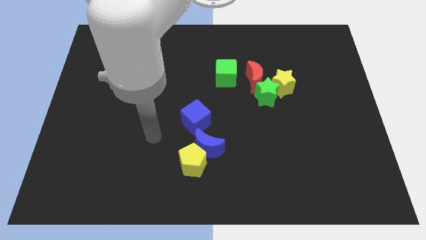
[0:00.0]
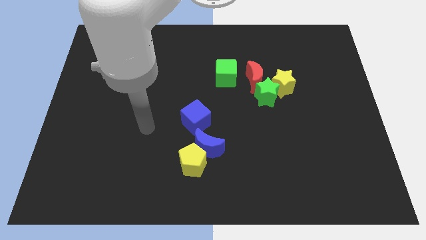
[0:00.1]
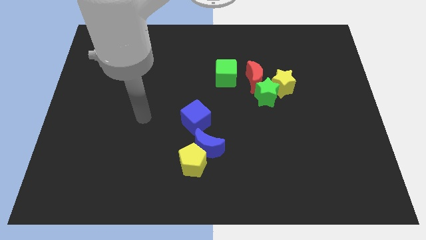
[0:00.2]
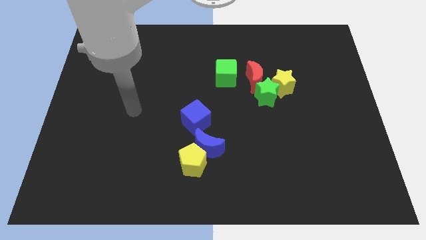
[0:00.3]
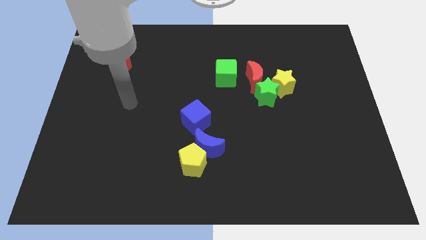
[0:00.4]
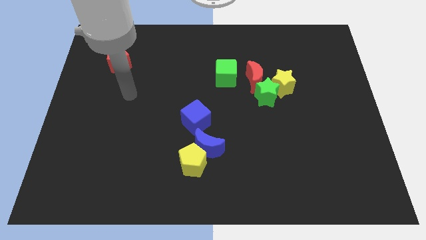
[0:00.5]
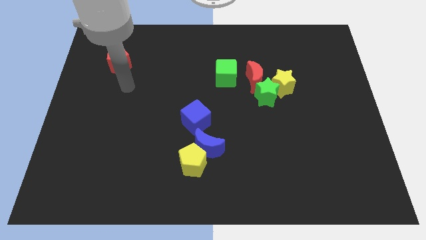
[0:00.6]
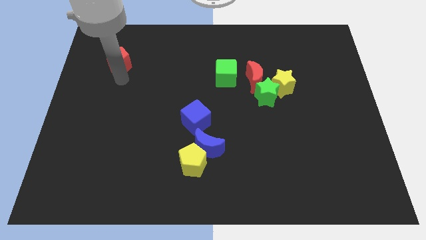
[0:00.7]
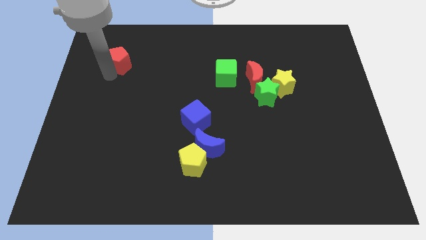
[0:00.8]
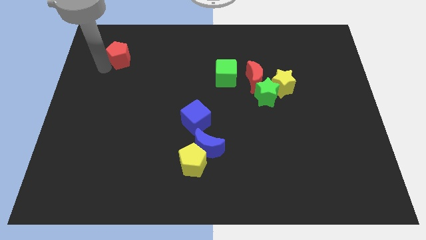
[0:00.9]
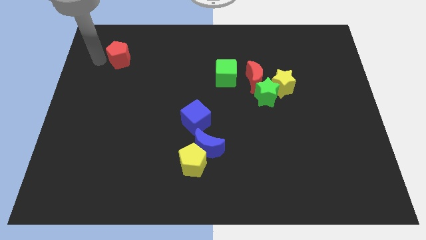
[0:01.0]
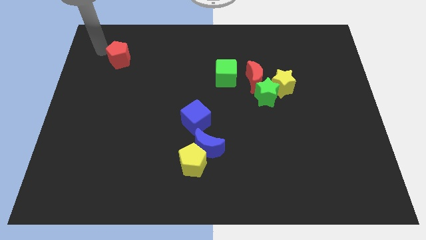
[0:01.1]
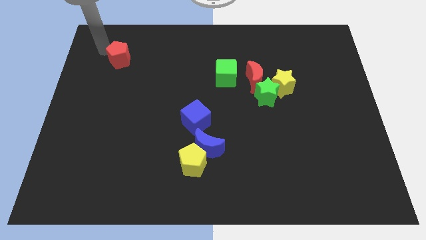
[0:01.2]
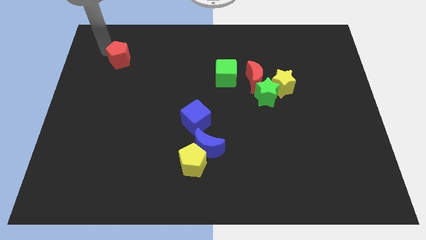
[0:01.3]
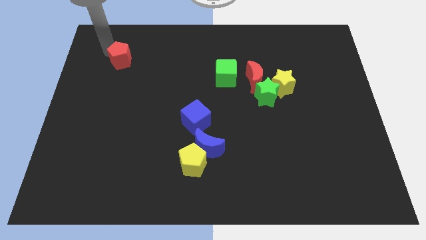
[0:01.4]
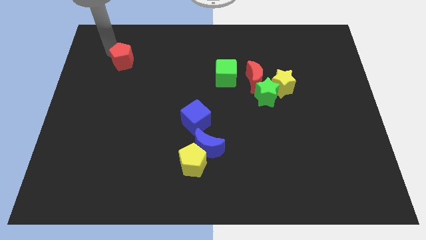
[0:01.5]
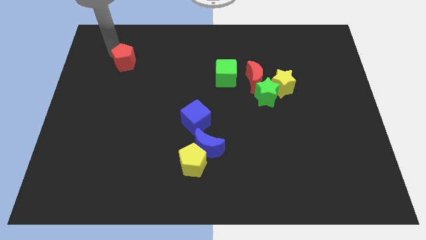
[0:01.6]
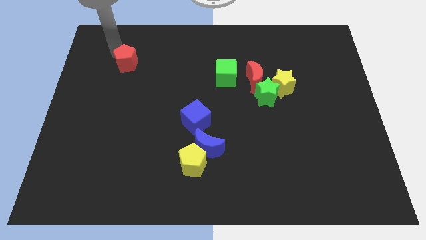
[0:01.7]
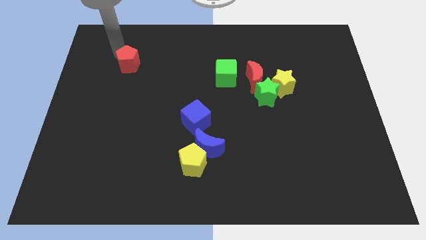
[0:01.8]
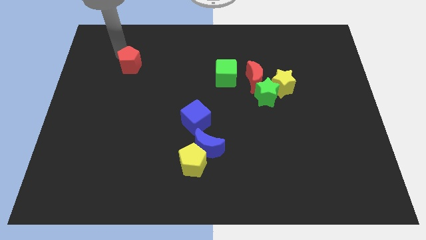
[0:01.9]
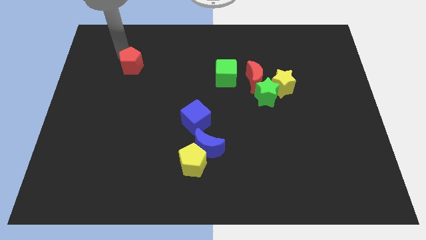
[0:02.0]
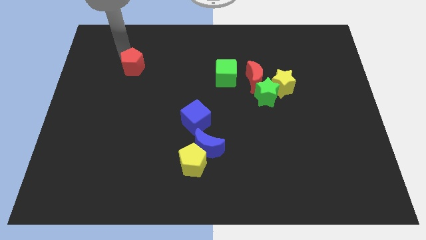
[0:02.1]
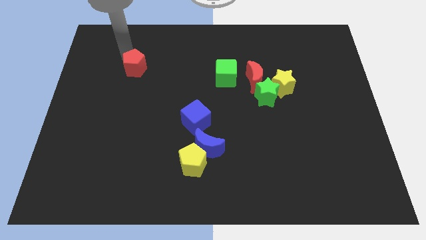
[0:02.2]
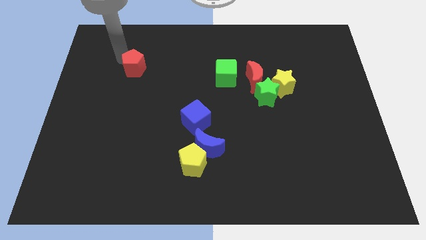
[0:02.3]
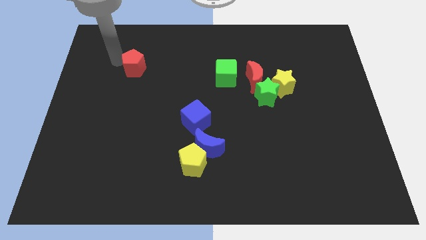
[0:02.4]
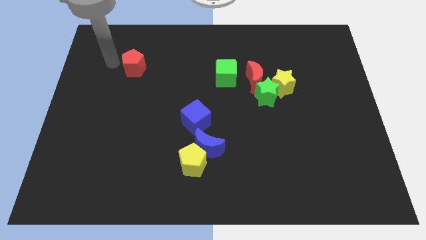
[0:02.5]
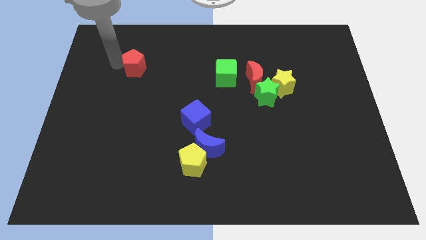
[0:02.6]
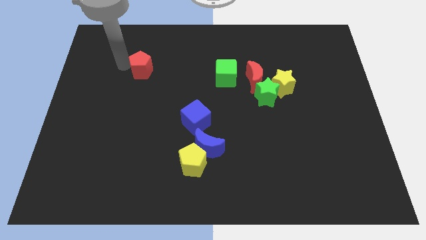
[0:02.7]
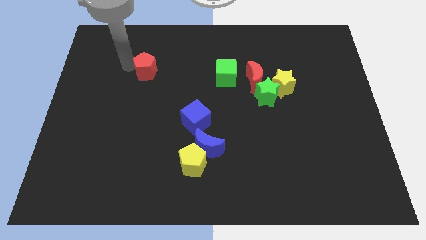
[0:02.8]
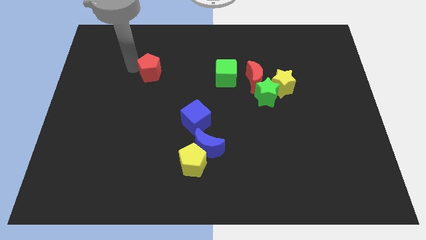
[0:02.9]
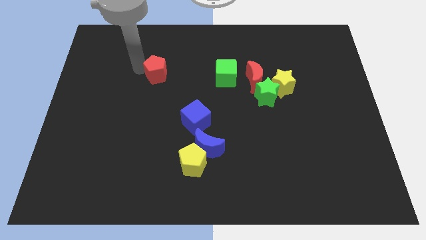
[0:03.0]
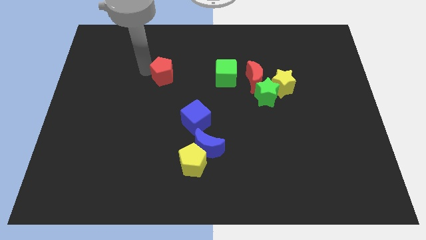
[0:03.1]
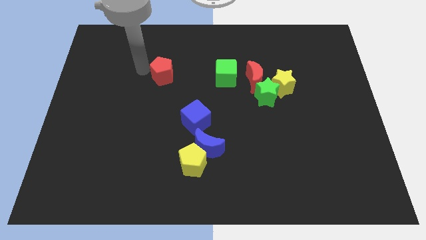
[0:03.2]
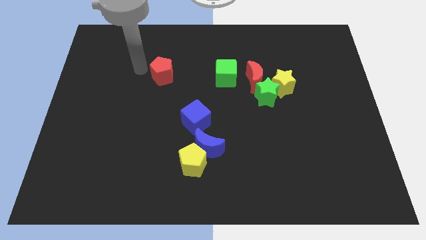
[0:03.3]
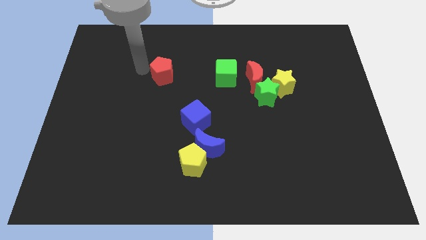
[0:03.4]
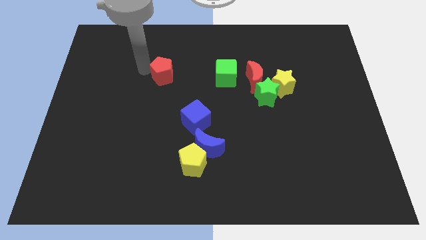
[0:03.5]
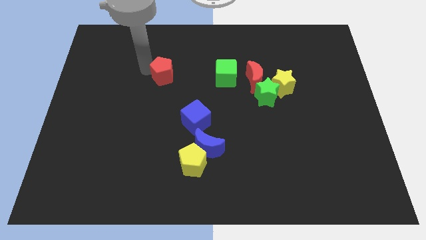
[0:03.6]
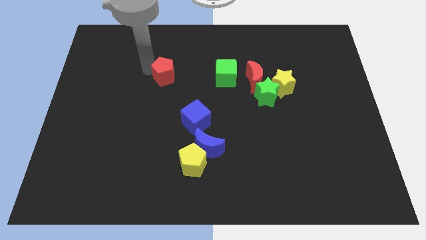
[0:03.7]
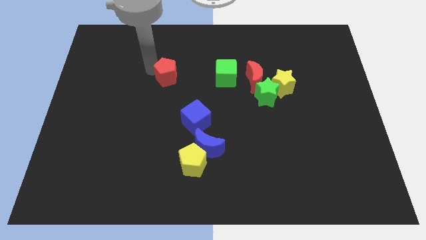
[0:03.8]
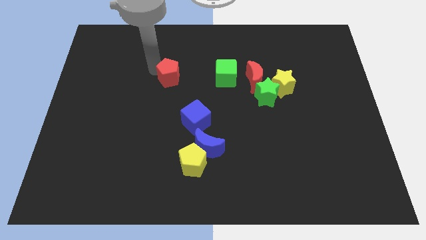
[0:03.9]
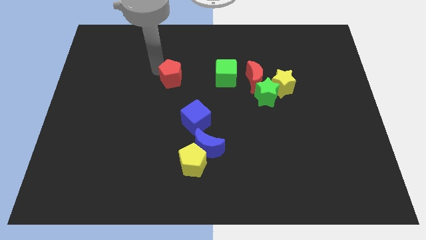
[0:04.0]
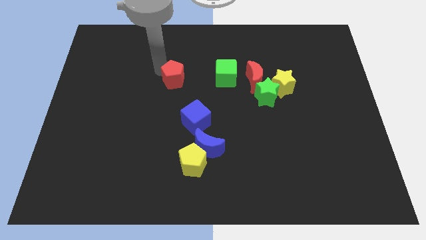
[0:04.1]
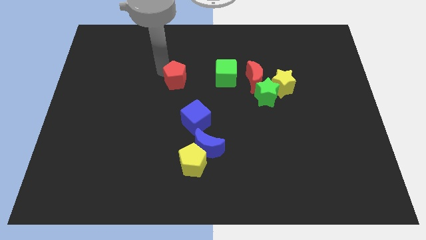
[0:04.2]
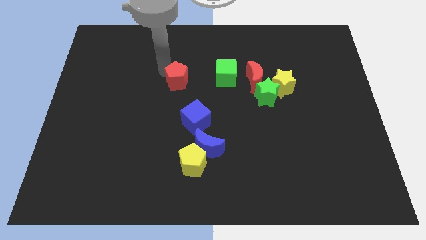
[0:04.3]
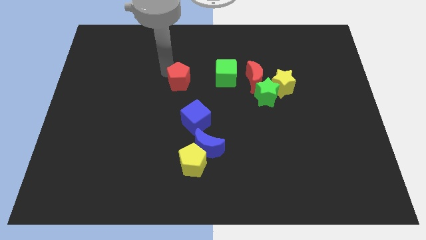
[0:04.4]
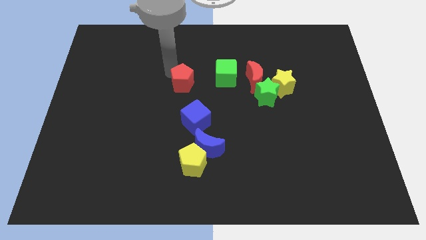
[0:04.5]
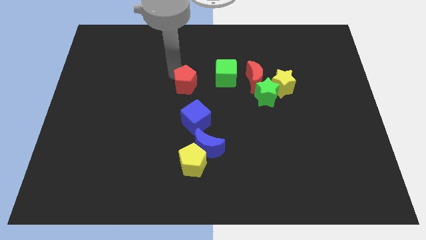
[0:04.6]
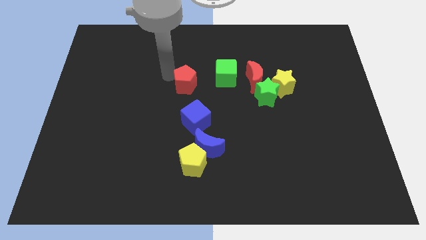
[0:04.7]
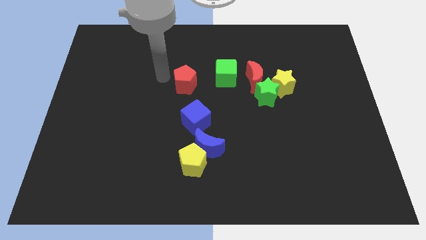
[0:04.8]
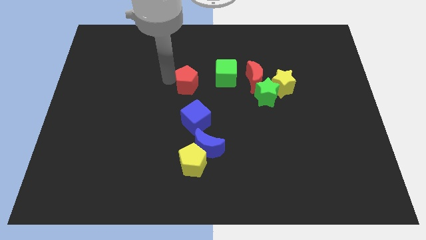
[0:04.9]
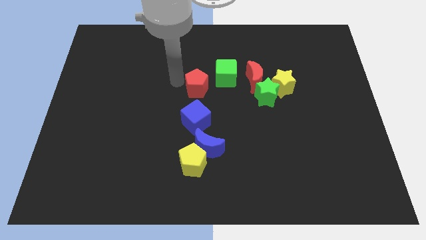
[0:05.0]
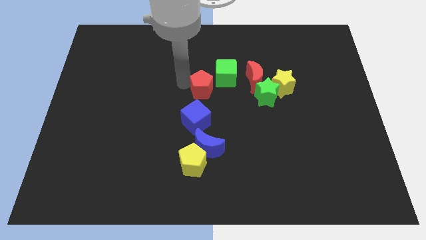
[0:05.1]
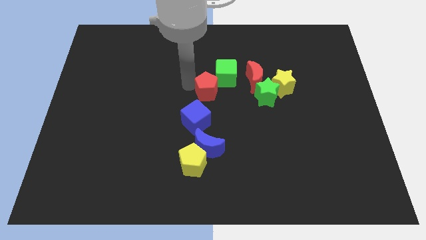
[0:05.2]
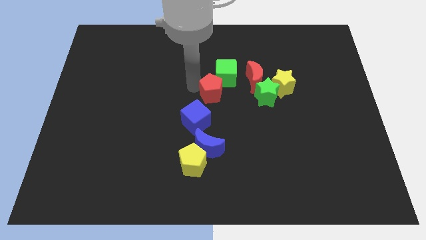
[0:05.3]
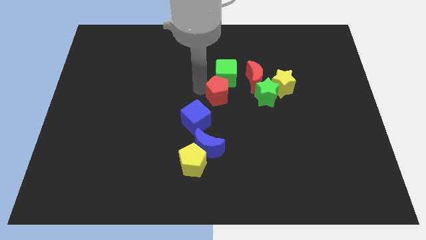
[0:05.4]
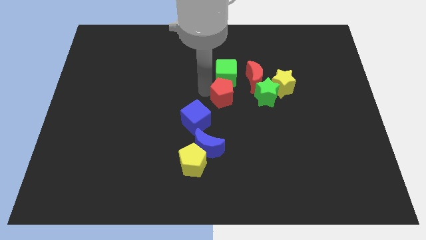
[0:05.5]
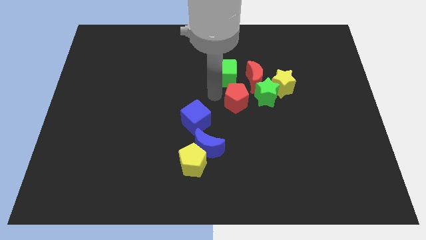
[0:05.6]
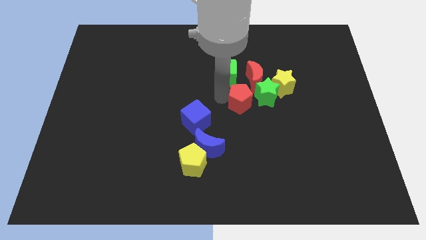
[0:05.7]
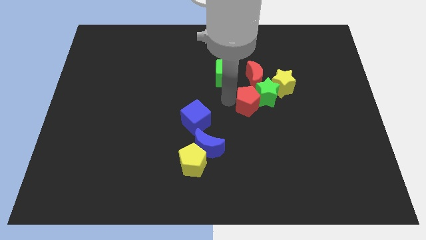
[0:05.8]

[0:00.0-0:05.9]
move the red pentagon to the green star

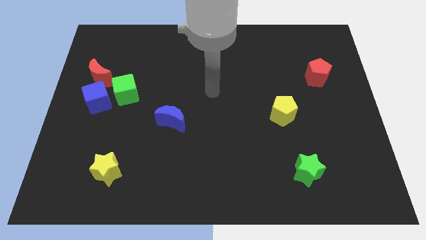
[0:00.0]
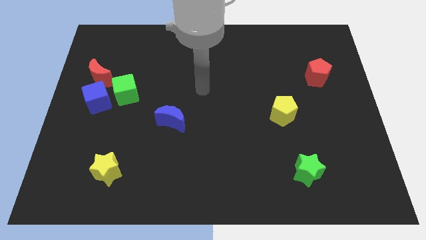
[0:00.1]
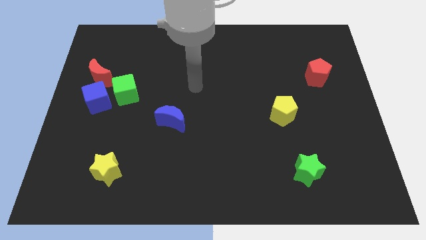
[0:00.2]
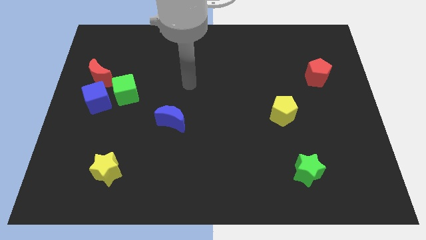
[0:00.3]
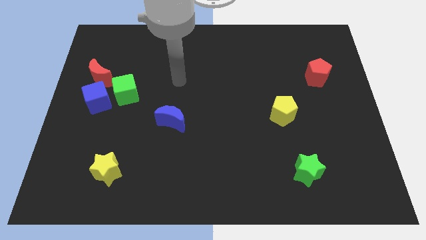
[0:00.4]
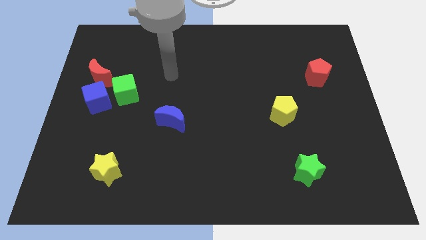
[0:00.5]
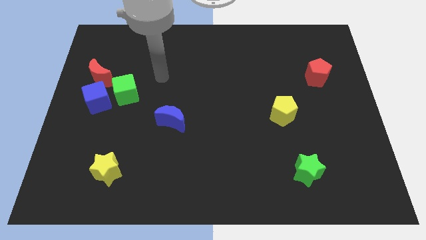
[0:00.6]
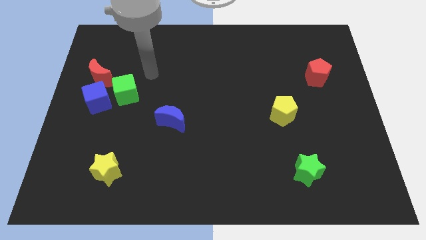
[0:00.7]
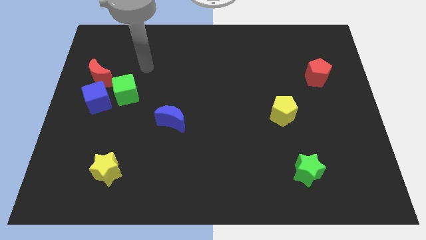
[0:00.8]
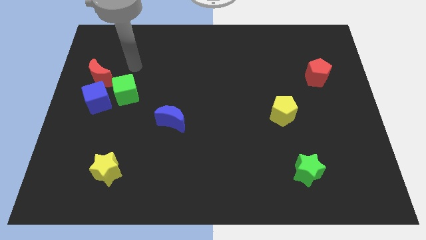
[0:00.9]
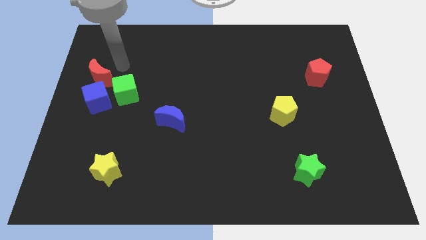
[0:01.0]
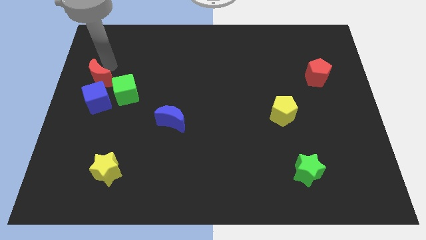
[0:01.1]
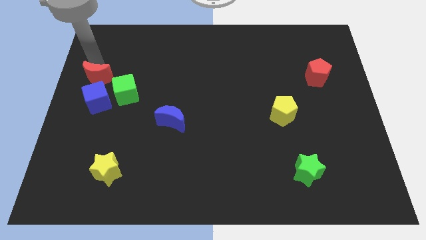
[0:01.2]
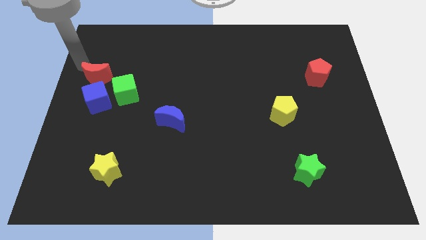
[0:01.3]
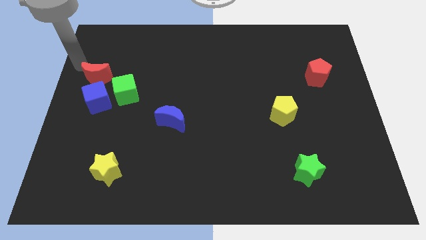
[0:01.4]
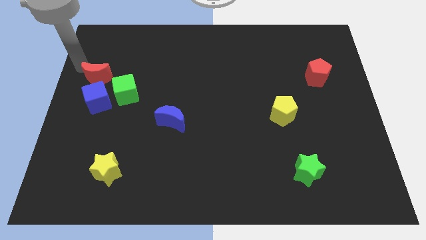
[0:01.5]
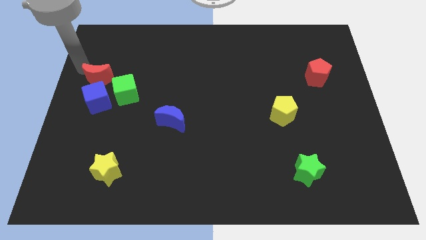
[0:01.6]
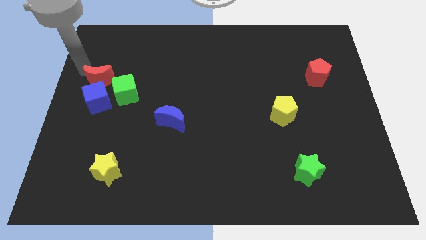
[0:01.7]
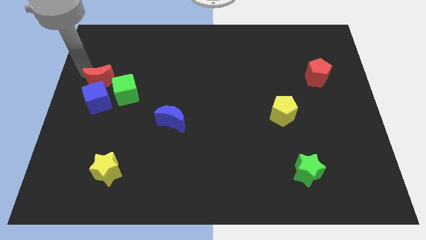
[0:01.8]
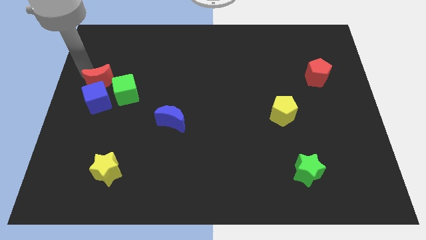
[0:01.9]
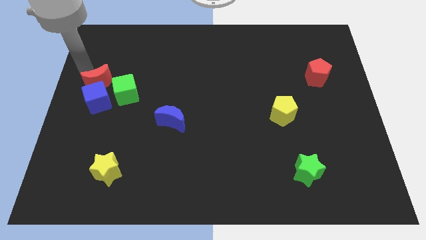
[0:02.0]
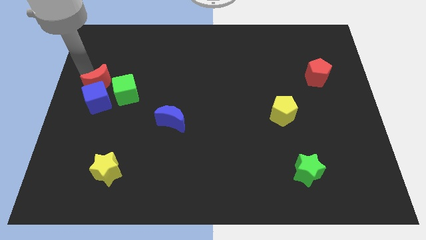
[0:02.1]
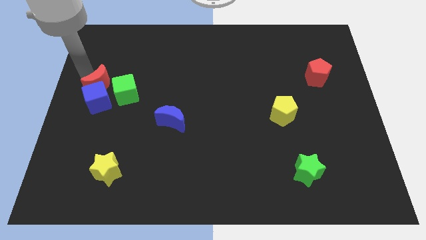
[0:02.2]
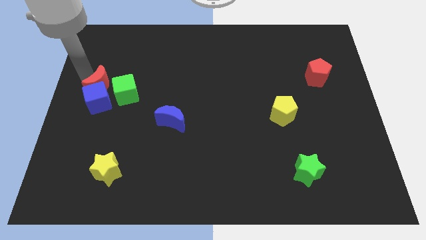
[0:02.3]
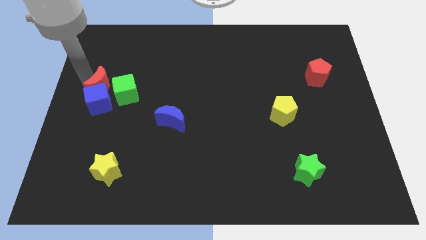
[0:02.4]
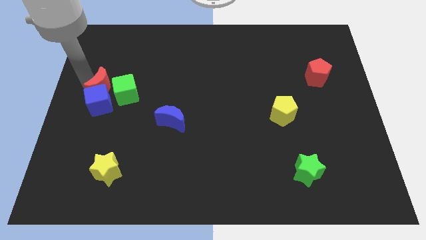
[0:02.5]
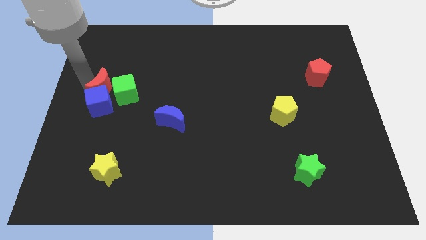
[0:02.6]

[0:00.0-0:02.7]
slide the red moon close to the green cube
